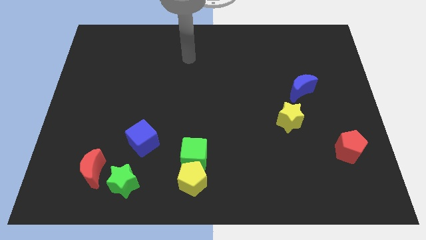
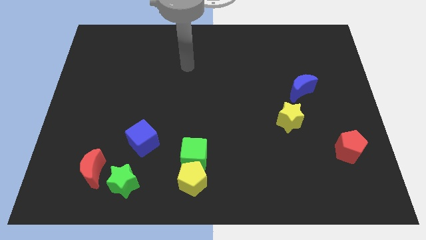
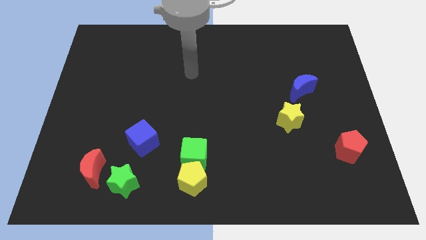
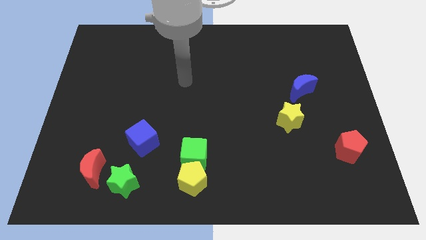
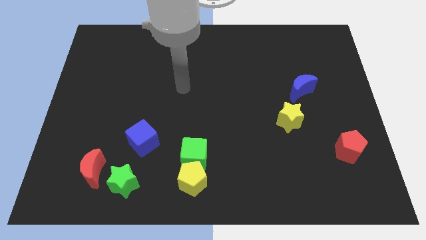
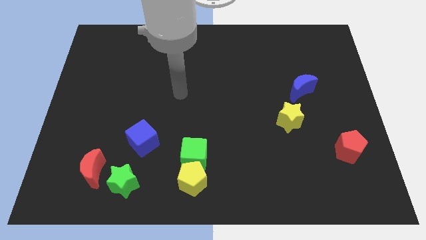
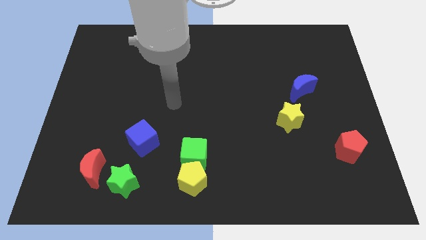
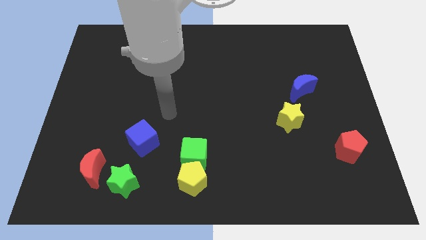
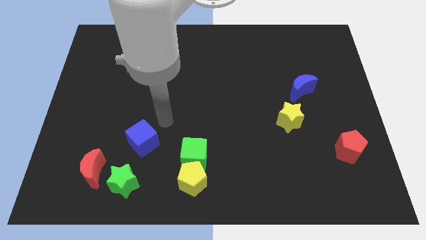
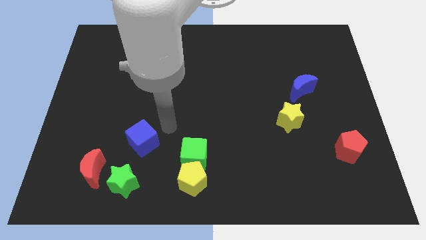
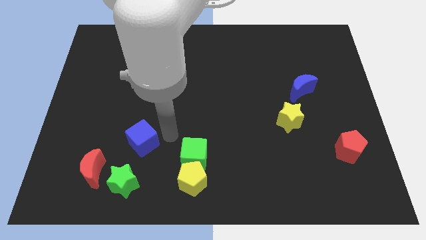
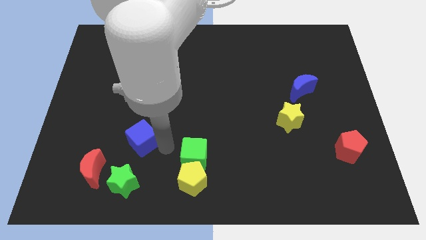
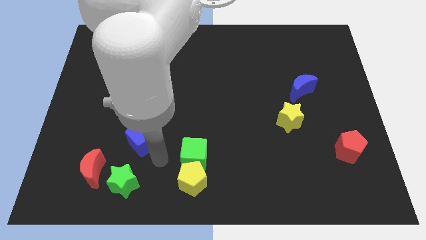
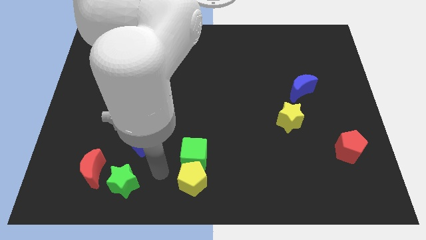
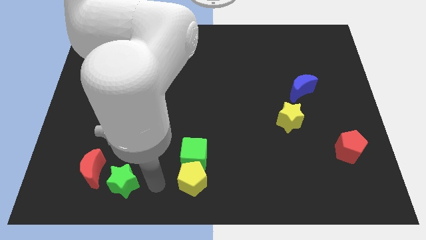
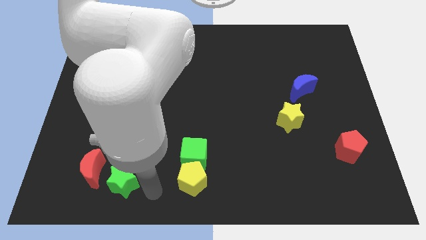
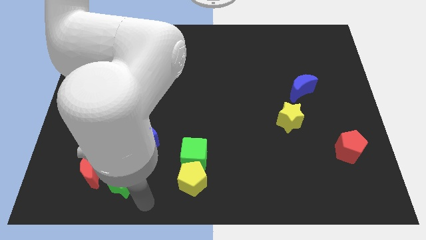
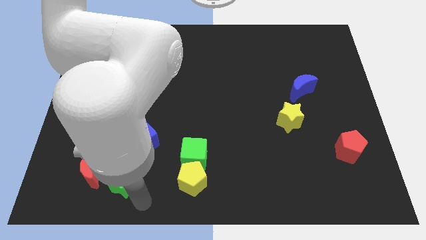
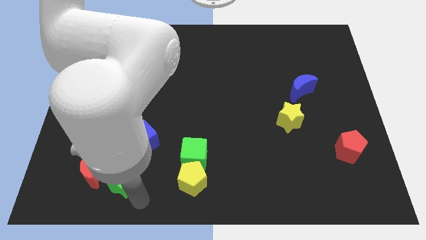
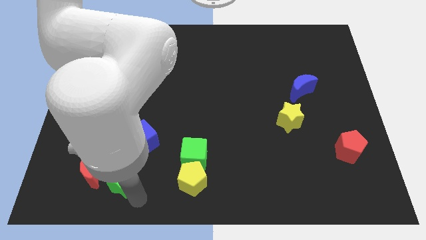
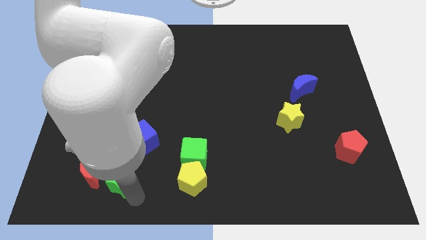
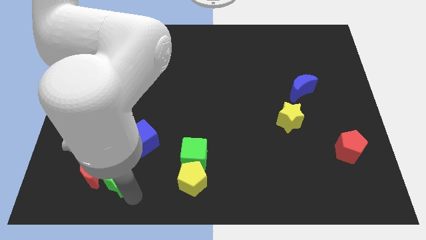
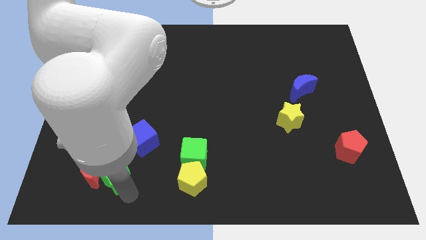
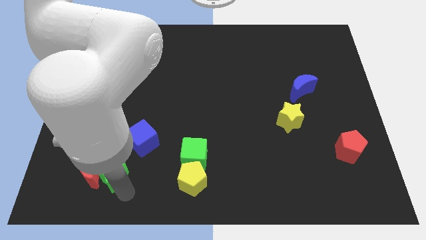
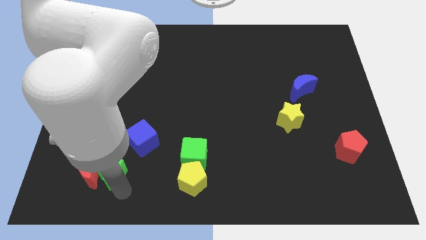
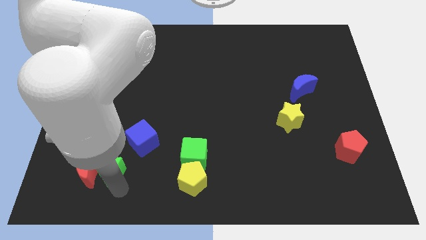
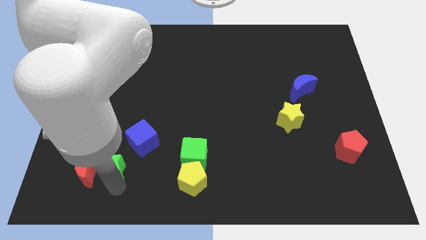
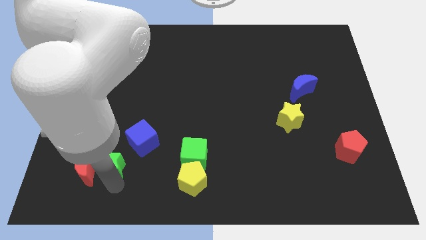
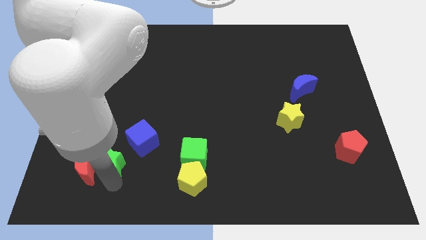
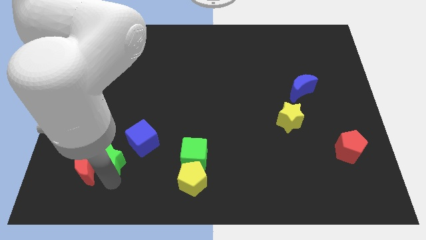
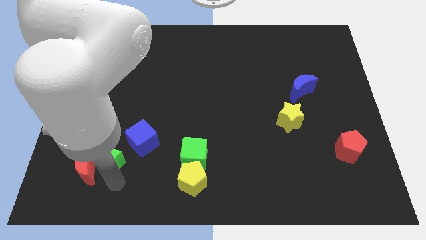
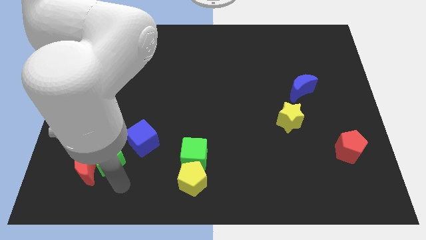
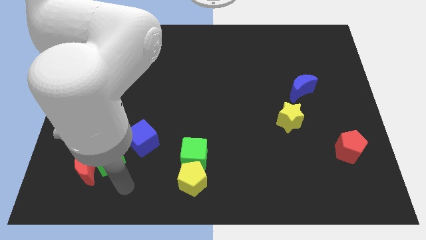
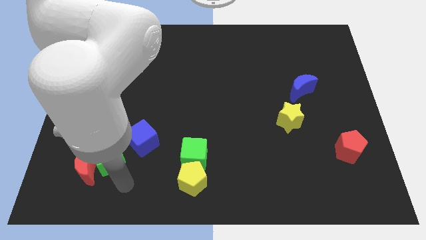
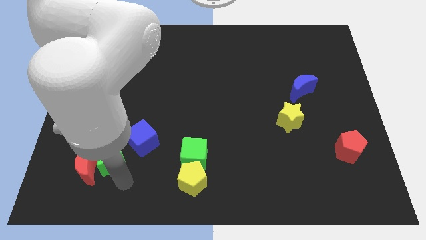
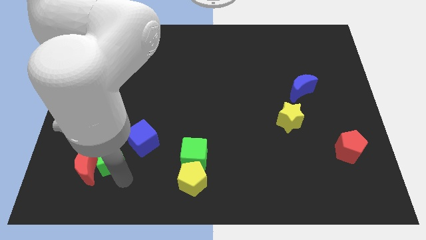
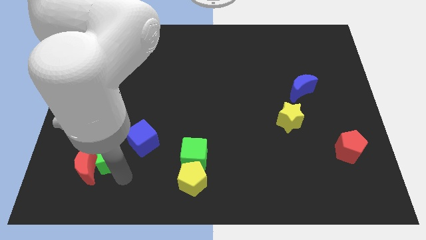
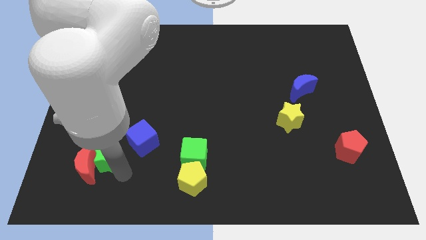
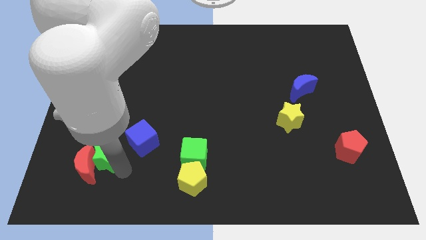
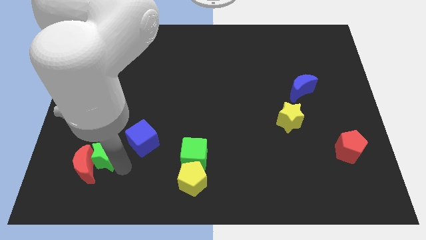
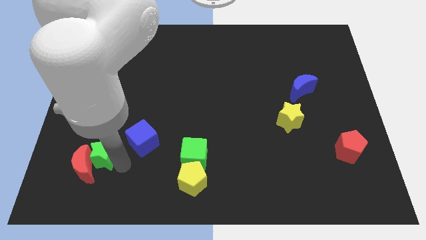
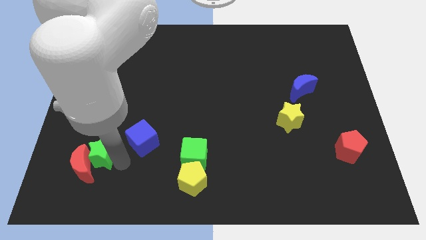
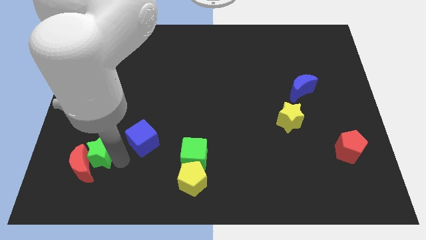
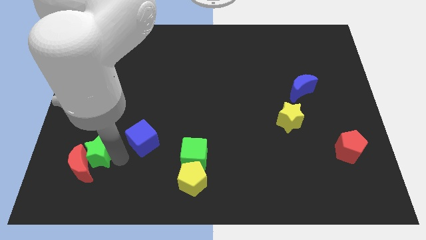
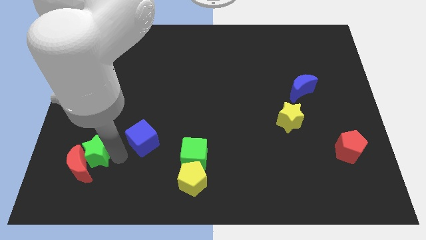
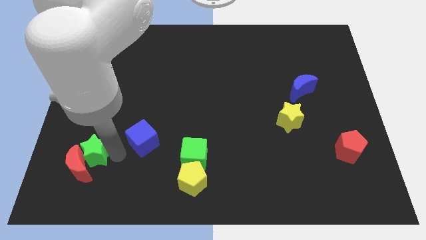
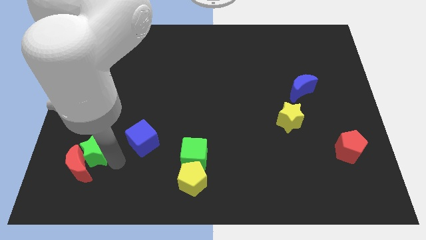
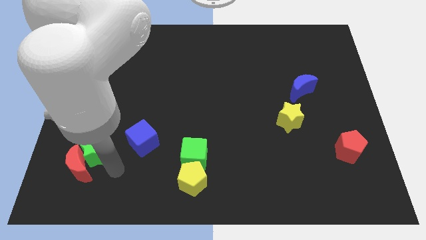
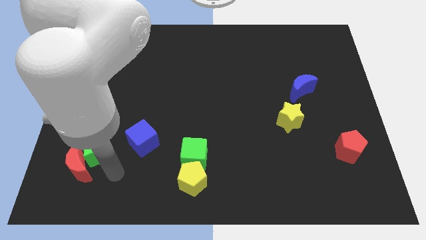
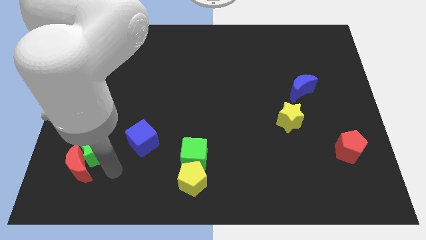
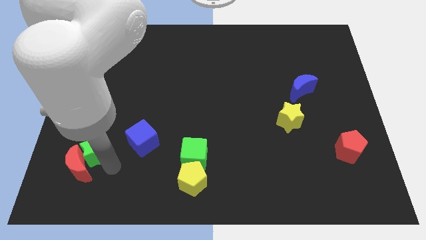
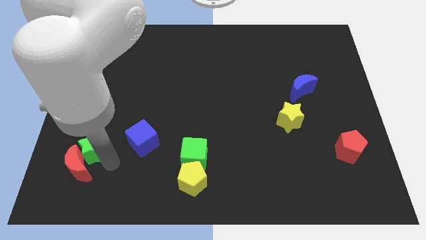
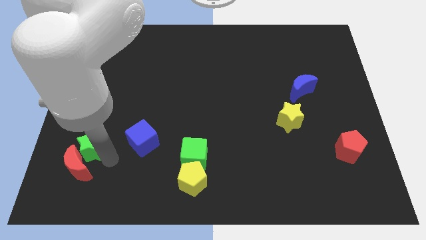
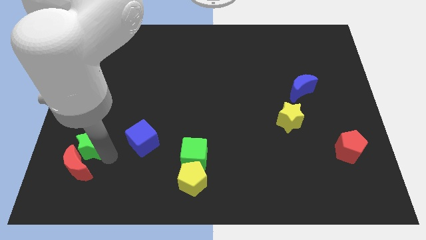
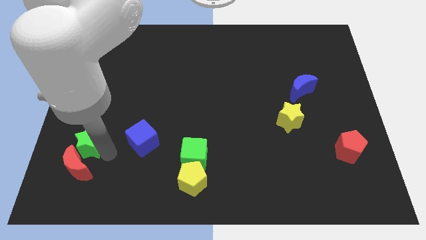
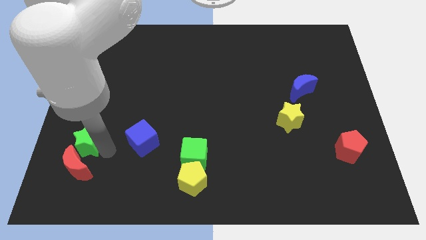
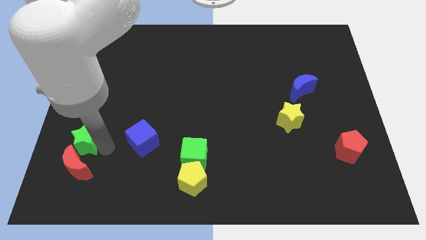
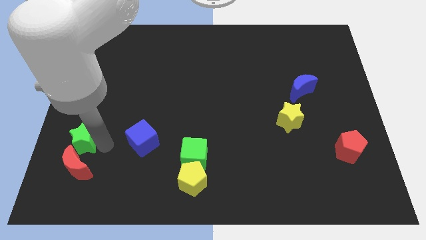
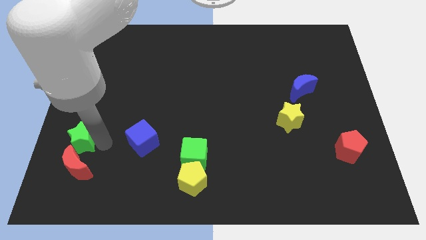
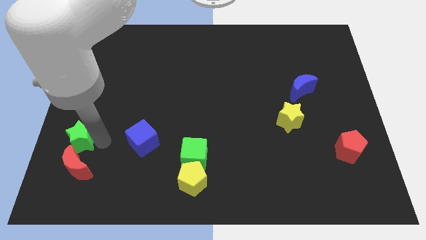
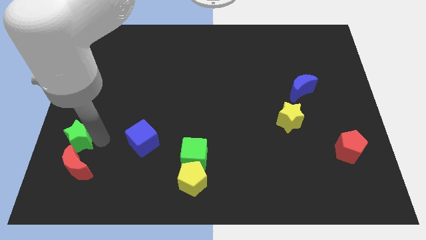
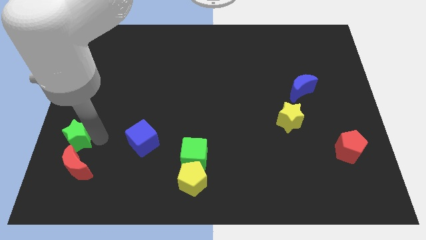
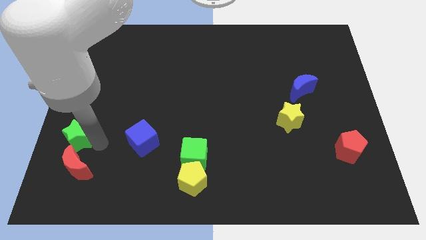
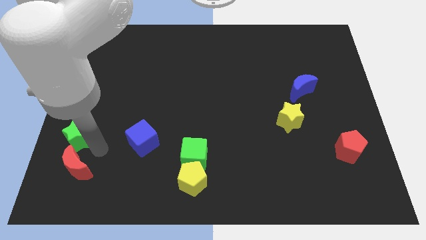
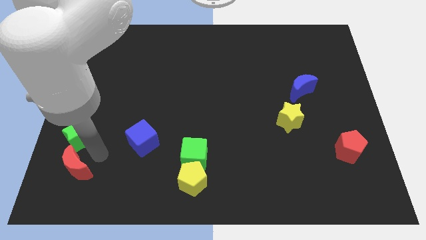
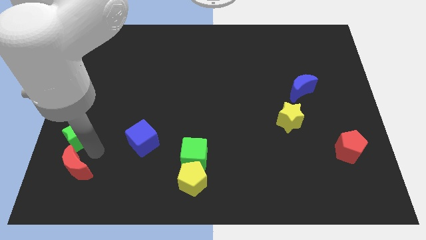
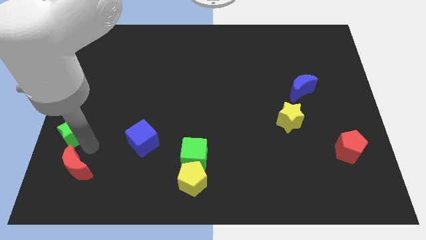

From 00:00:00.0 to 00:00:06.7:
push the green star to the left side
